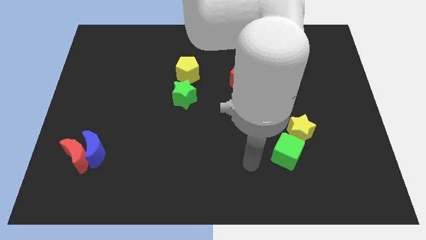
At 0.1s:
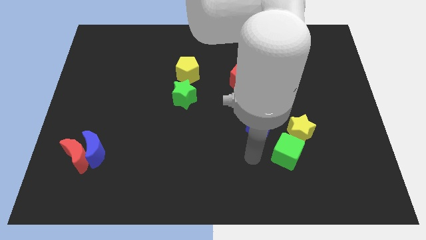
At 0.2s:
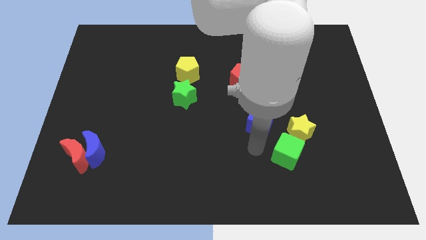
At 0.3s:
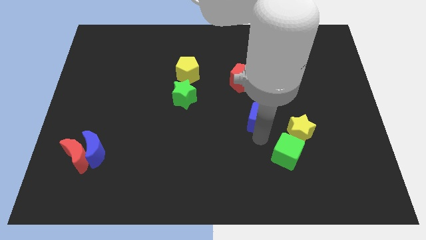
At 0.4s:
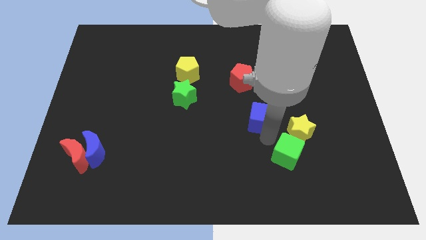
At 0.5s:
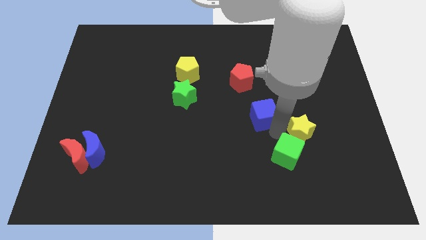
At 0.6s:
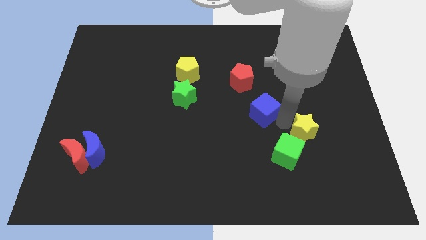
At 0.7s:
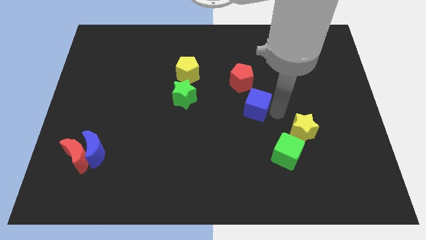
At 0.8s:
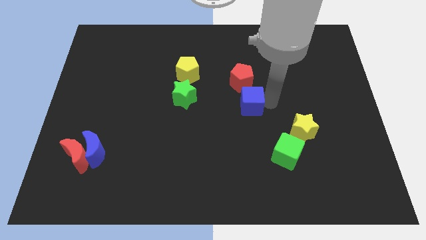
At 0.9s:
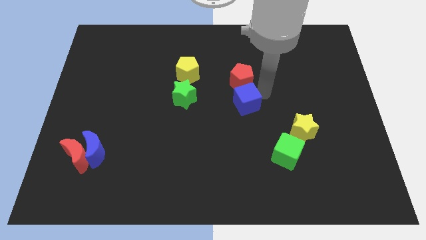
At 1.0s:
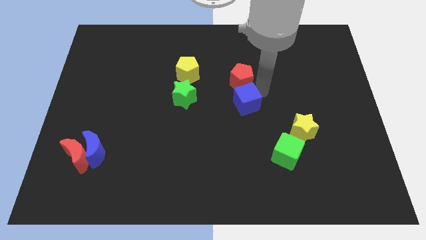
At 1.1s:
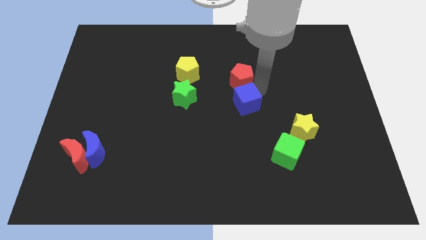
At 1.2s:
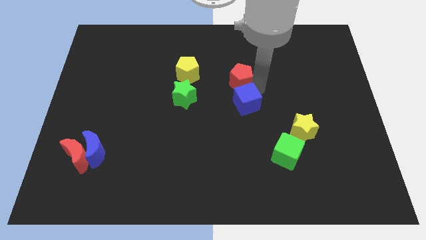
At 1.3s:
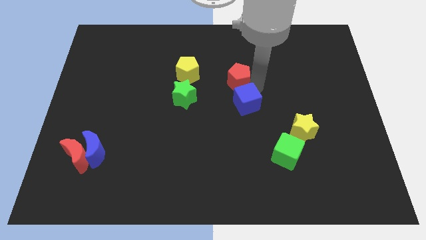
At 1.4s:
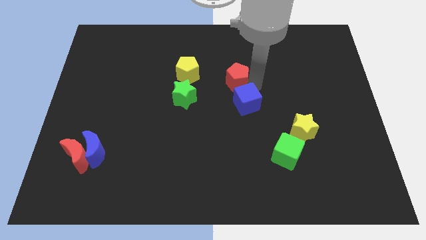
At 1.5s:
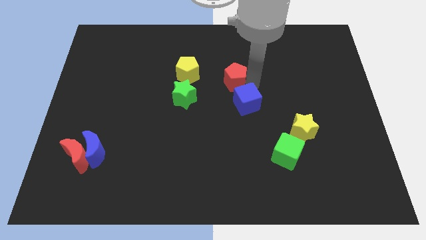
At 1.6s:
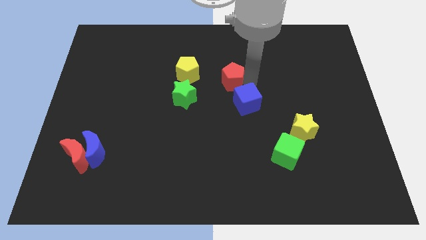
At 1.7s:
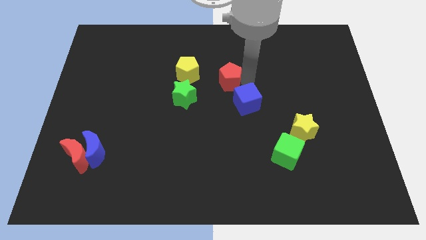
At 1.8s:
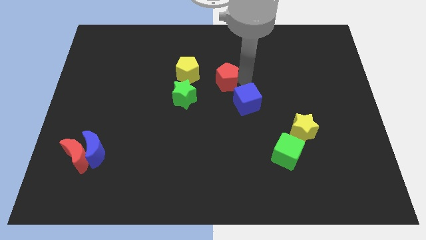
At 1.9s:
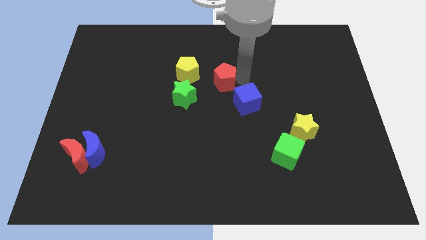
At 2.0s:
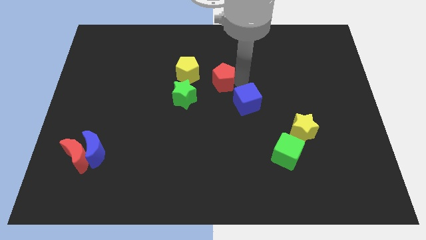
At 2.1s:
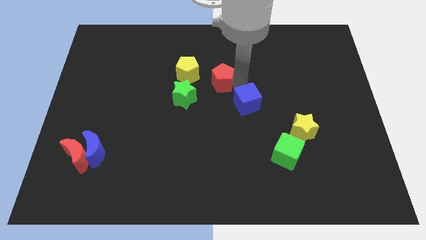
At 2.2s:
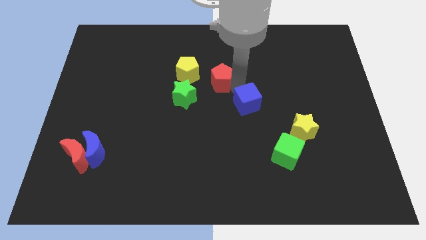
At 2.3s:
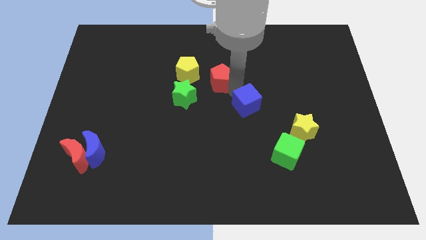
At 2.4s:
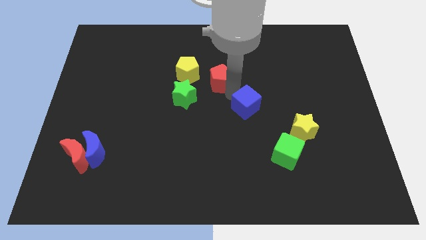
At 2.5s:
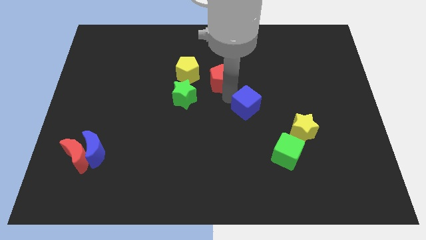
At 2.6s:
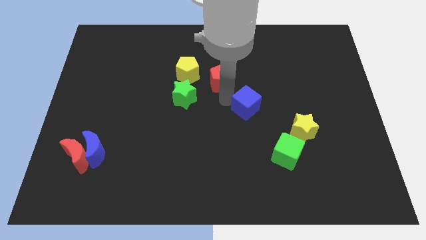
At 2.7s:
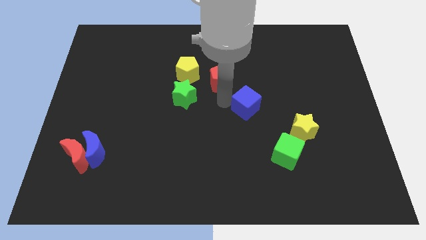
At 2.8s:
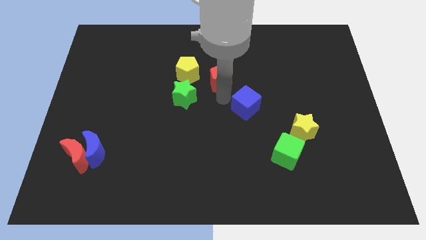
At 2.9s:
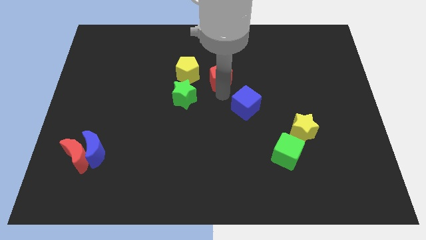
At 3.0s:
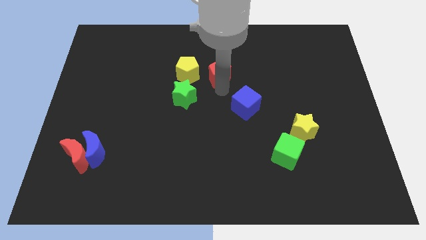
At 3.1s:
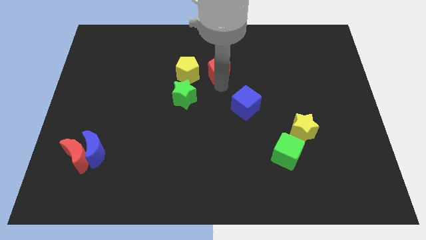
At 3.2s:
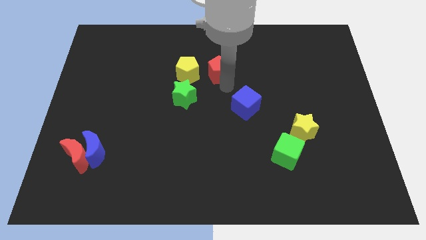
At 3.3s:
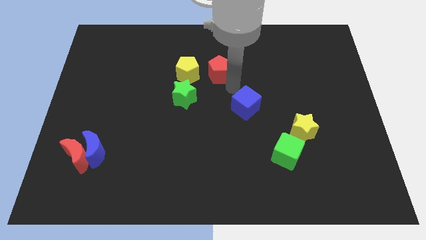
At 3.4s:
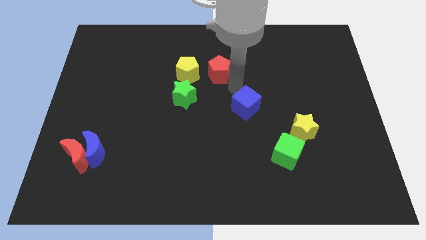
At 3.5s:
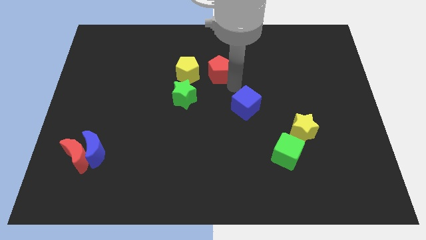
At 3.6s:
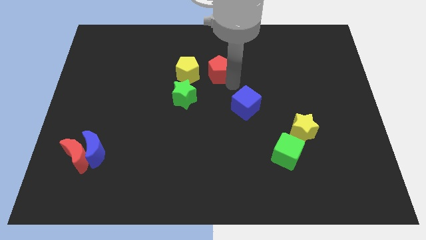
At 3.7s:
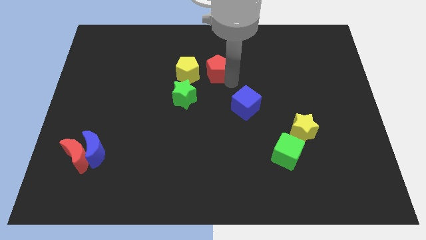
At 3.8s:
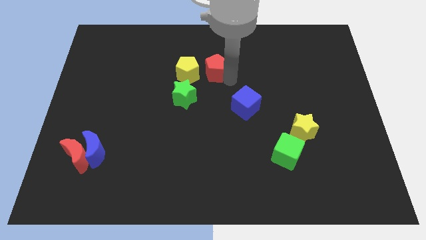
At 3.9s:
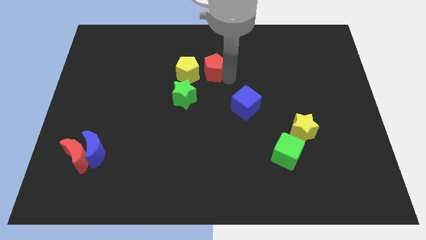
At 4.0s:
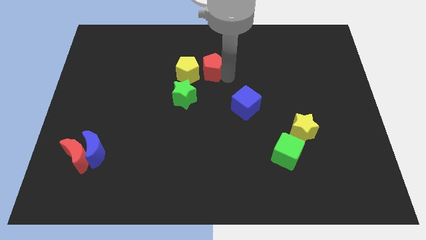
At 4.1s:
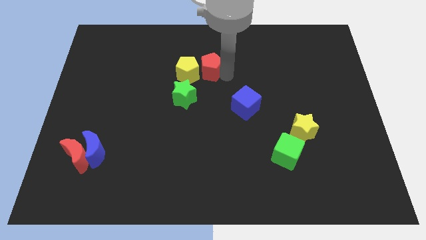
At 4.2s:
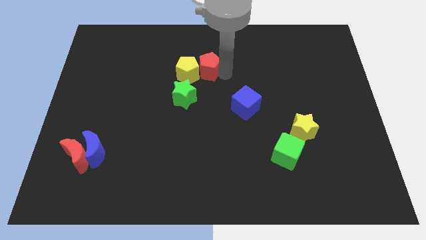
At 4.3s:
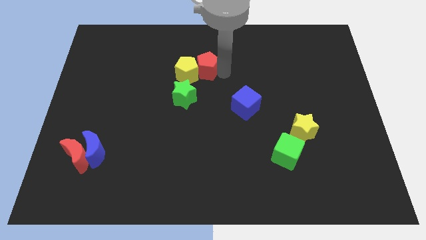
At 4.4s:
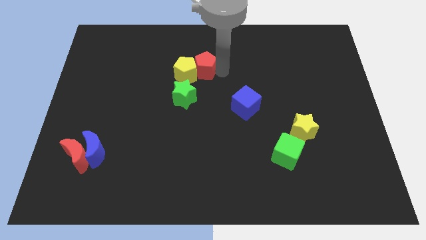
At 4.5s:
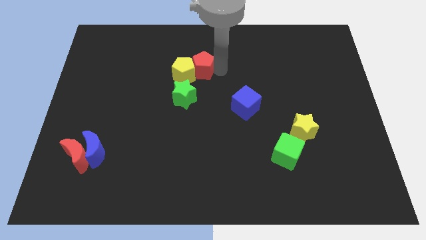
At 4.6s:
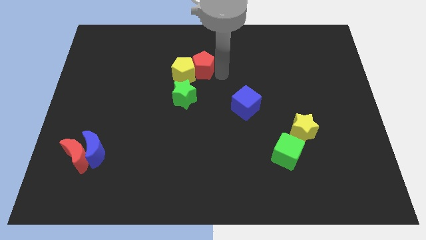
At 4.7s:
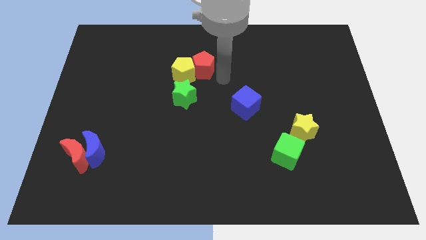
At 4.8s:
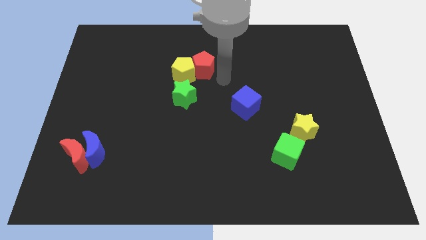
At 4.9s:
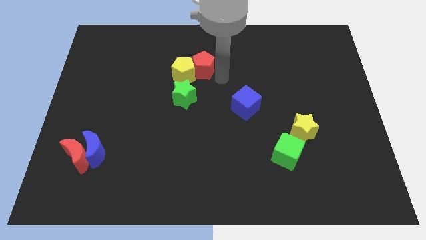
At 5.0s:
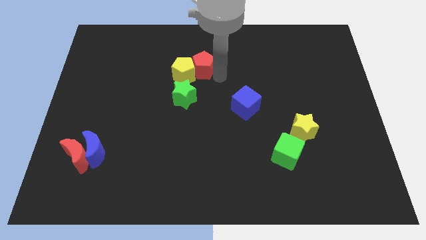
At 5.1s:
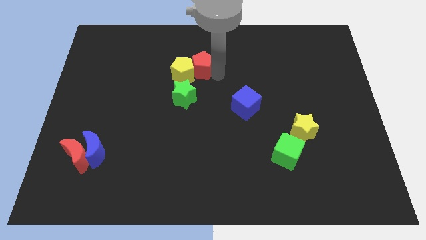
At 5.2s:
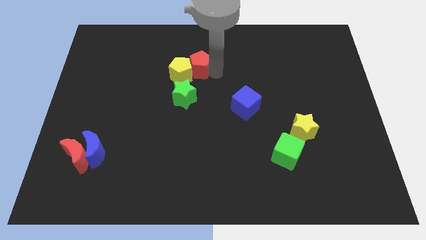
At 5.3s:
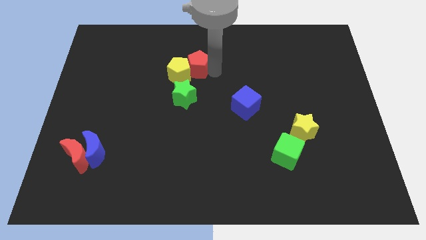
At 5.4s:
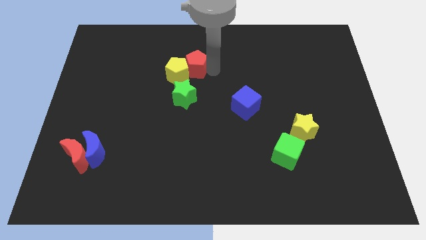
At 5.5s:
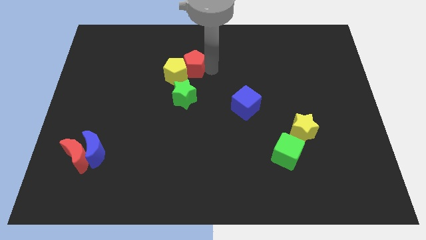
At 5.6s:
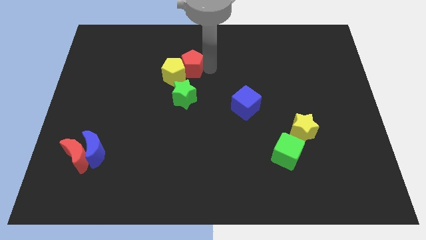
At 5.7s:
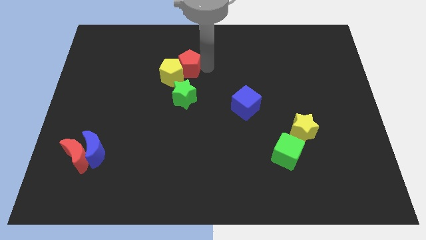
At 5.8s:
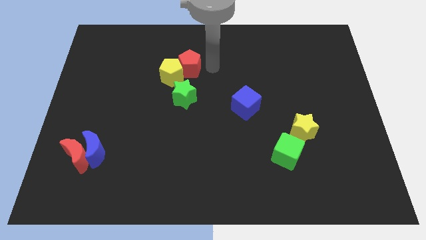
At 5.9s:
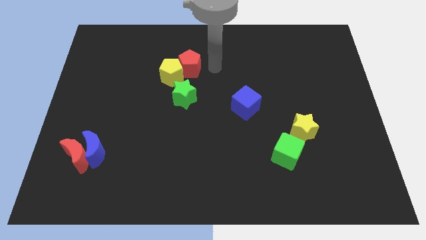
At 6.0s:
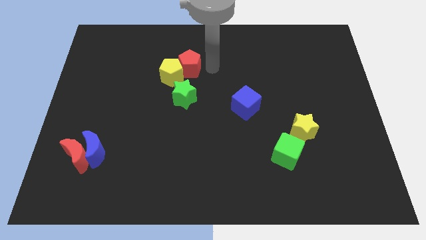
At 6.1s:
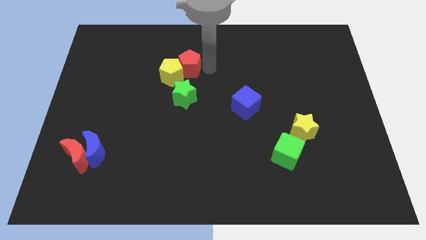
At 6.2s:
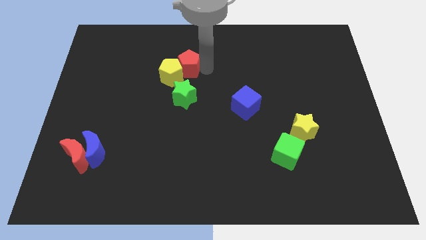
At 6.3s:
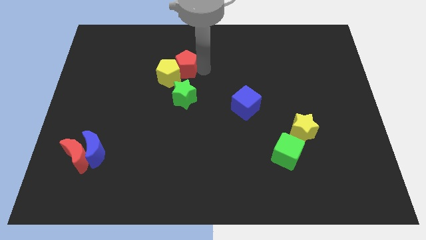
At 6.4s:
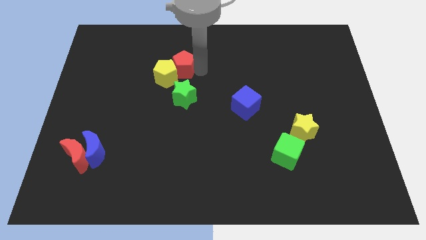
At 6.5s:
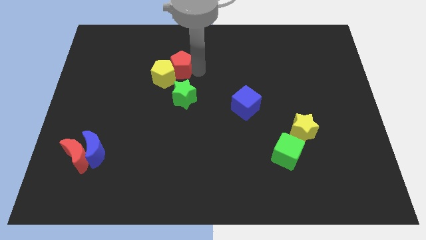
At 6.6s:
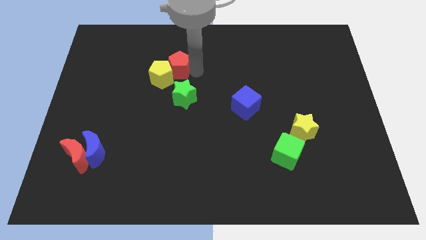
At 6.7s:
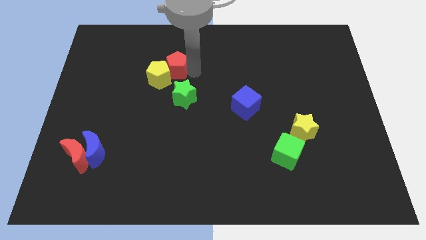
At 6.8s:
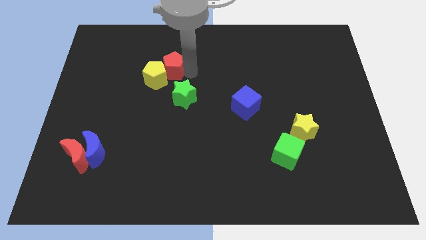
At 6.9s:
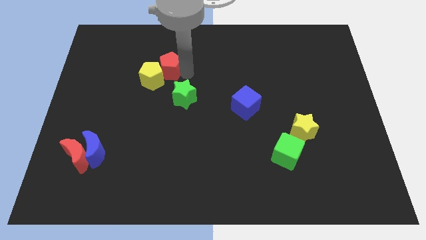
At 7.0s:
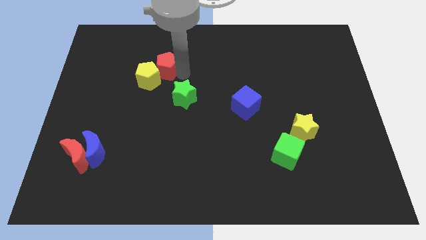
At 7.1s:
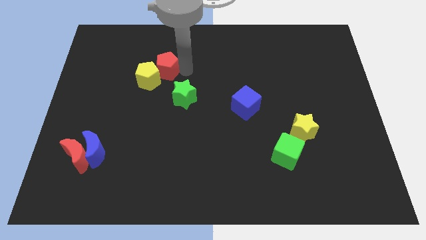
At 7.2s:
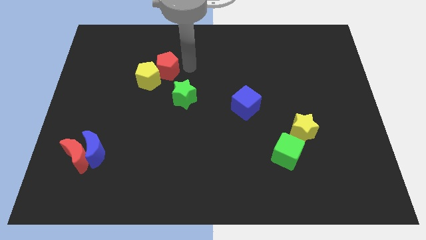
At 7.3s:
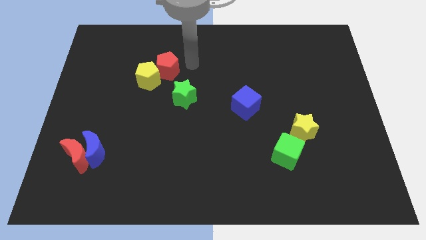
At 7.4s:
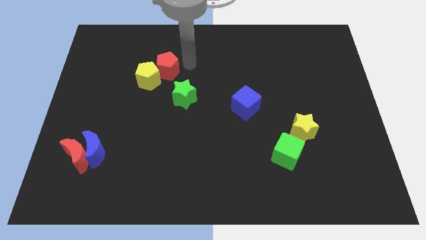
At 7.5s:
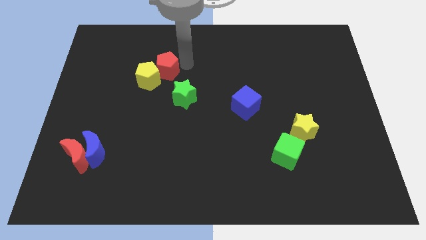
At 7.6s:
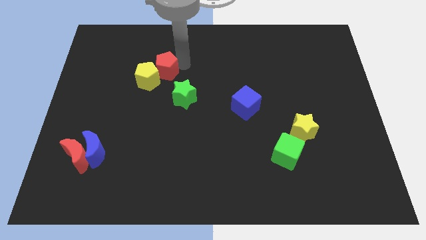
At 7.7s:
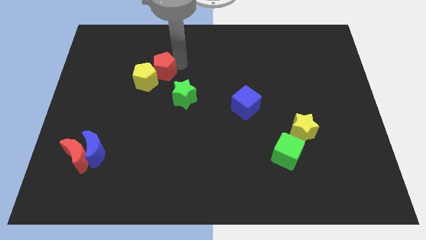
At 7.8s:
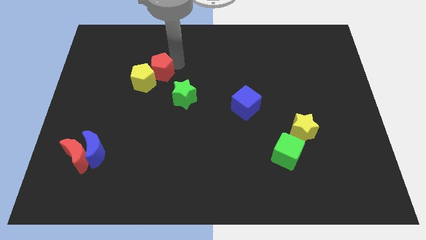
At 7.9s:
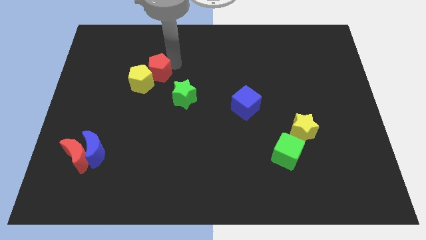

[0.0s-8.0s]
push the red pentagon left

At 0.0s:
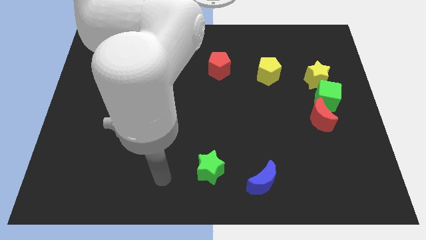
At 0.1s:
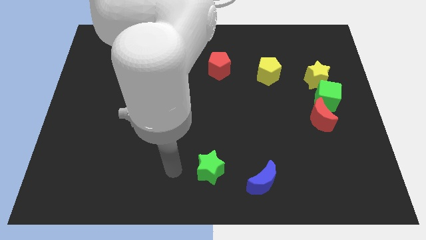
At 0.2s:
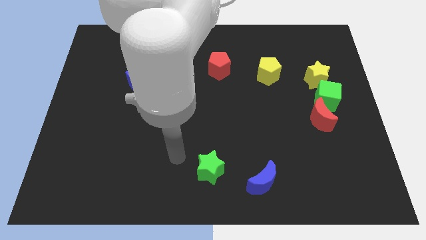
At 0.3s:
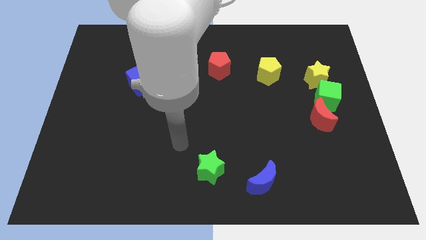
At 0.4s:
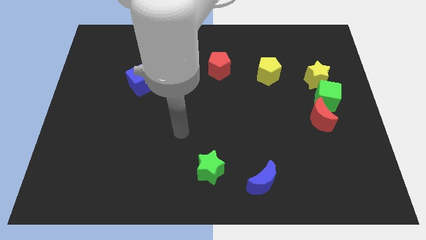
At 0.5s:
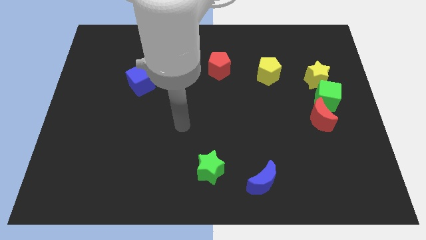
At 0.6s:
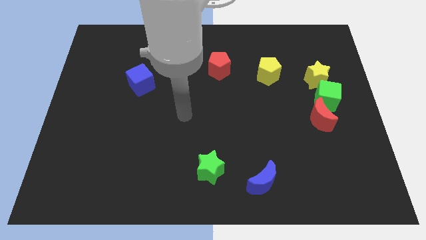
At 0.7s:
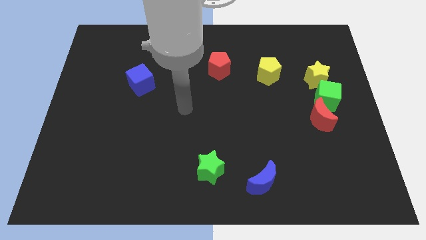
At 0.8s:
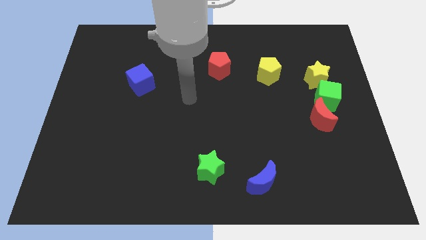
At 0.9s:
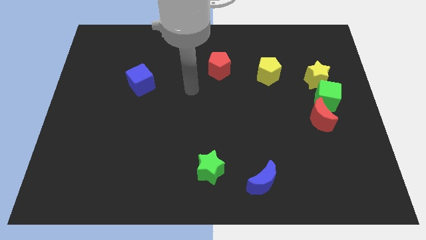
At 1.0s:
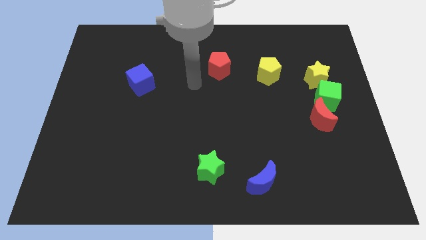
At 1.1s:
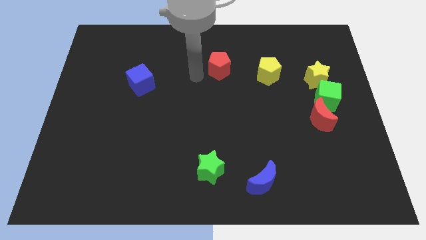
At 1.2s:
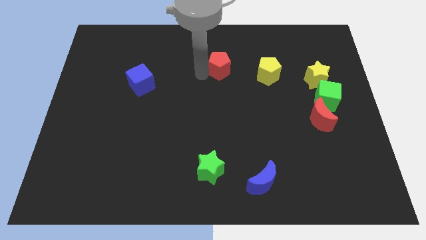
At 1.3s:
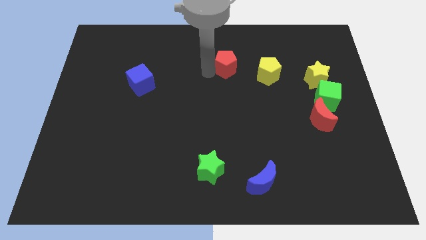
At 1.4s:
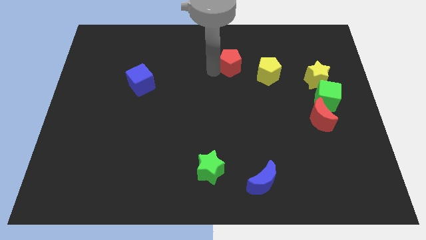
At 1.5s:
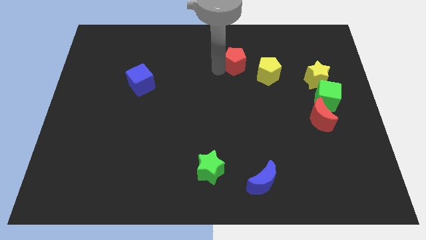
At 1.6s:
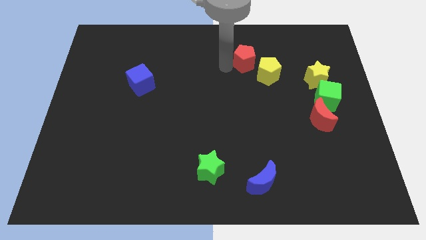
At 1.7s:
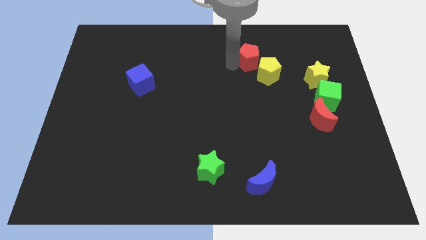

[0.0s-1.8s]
push the red pentagon to the right a bit
